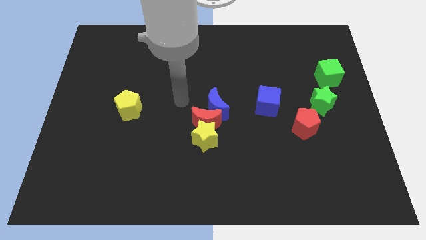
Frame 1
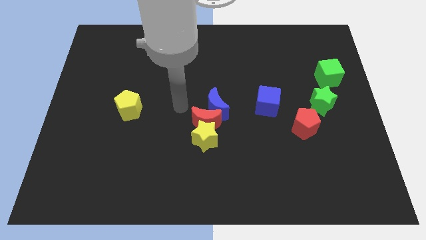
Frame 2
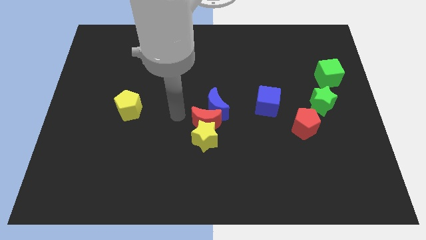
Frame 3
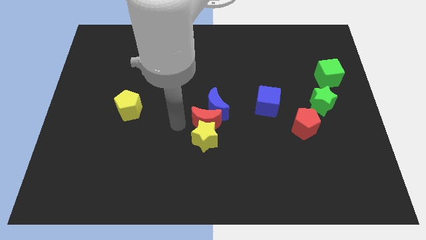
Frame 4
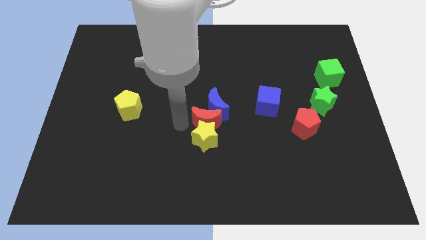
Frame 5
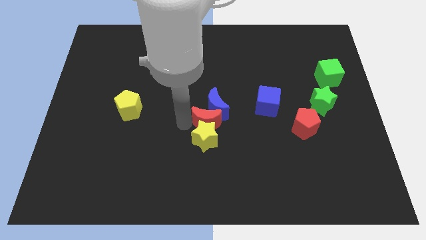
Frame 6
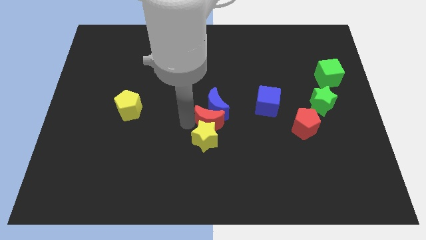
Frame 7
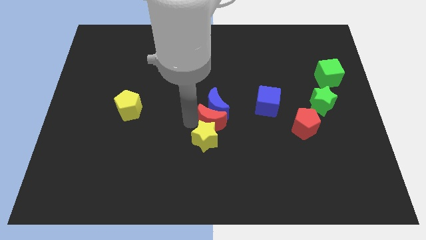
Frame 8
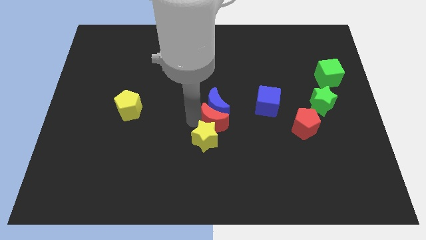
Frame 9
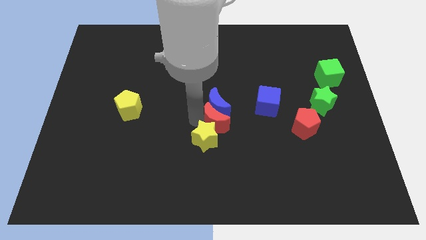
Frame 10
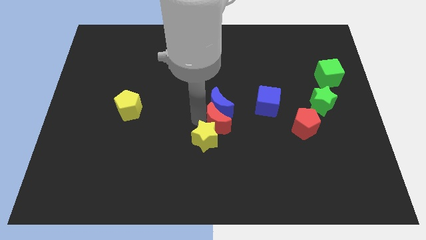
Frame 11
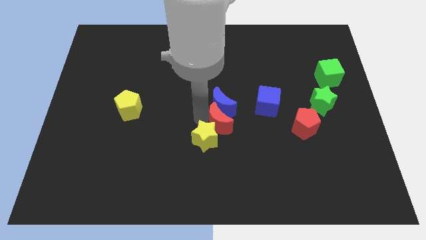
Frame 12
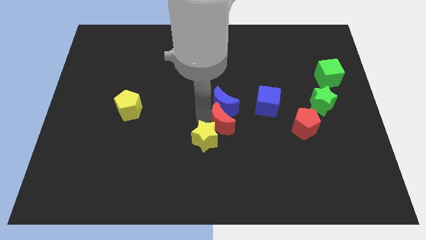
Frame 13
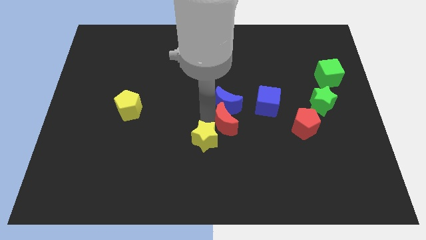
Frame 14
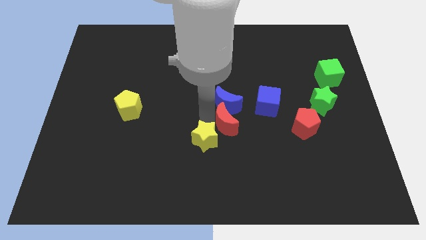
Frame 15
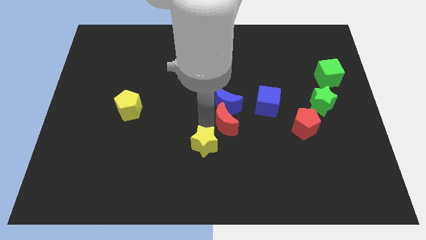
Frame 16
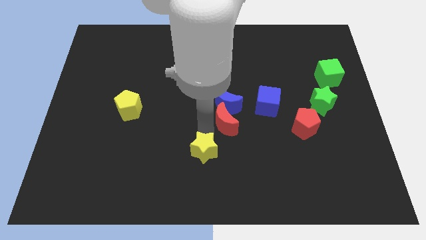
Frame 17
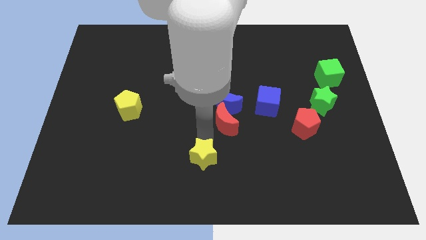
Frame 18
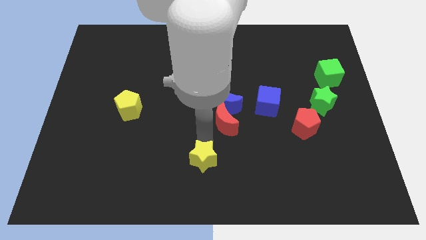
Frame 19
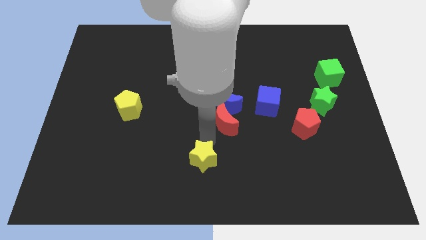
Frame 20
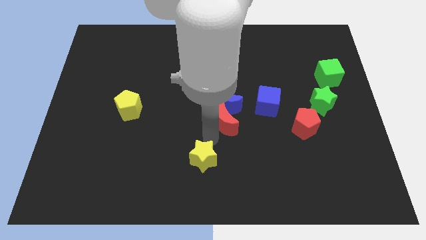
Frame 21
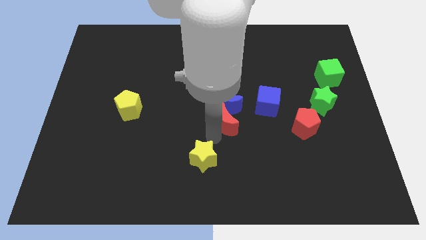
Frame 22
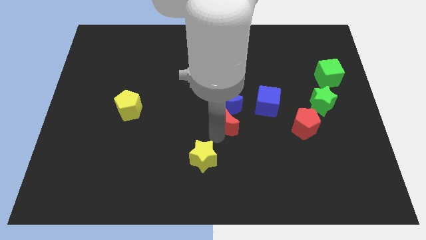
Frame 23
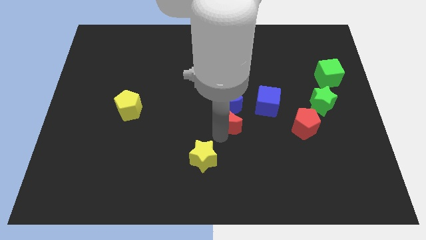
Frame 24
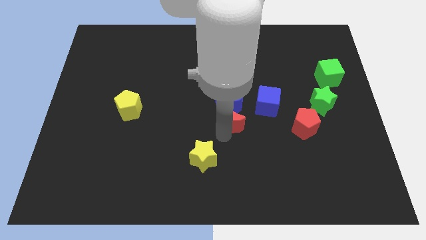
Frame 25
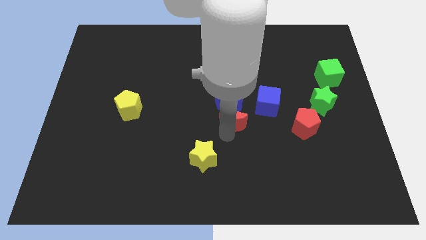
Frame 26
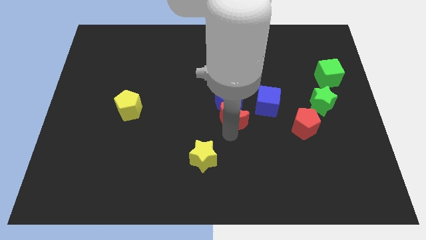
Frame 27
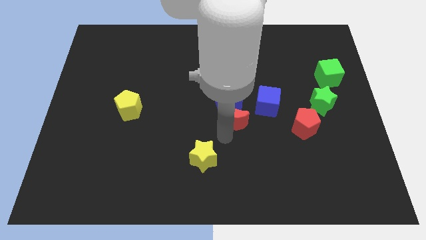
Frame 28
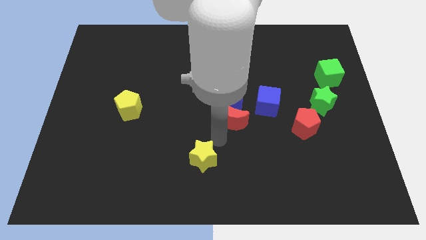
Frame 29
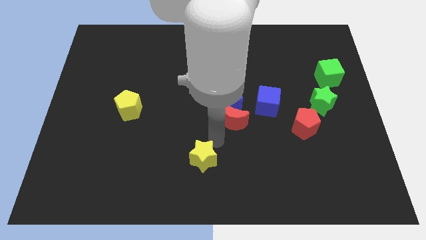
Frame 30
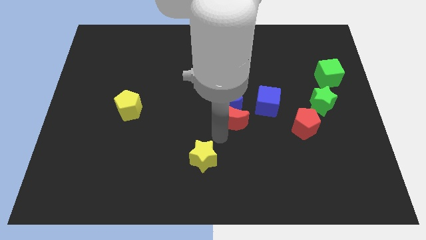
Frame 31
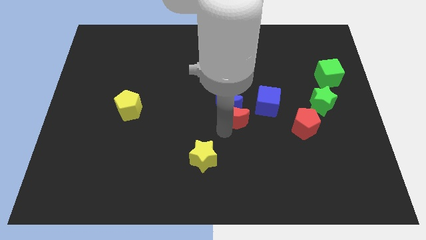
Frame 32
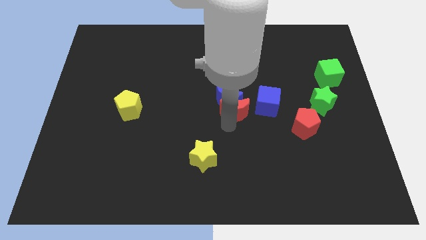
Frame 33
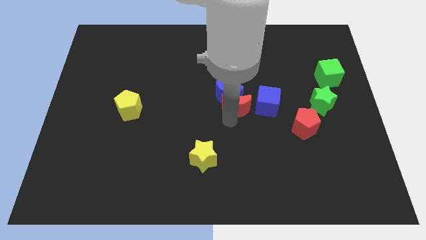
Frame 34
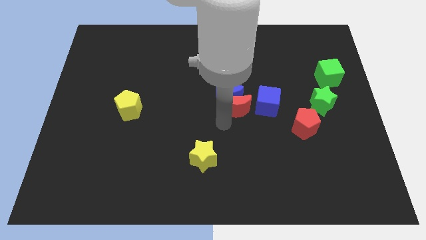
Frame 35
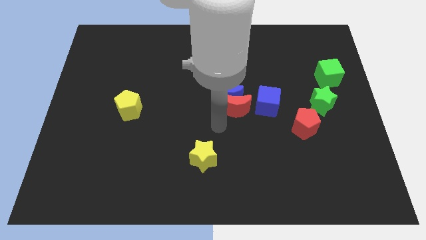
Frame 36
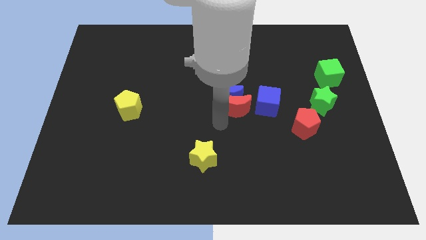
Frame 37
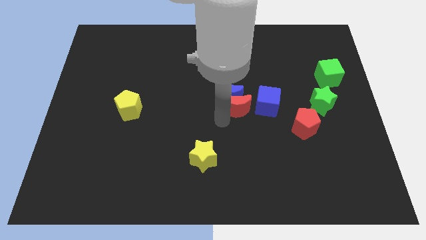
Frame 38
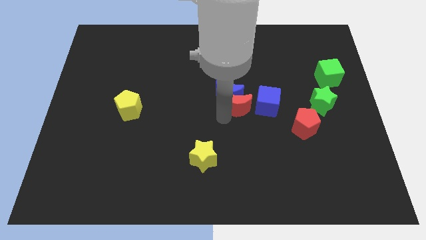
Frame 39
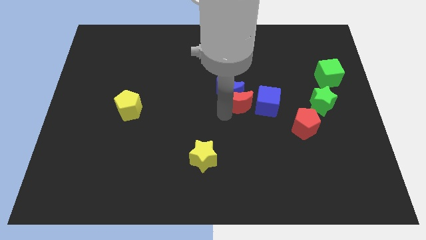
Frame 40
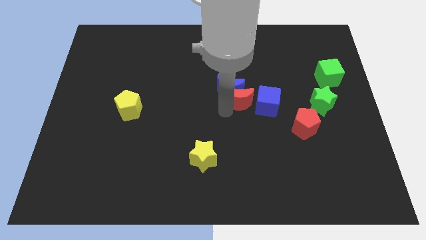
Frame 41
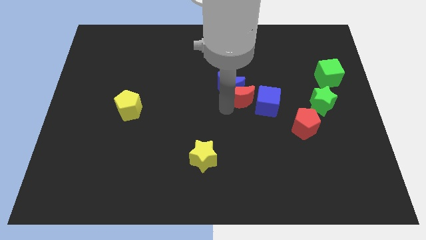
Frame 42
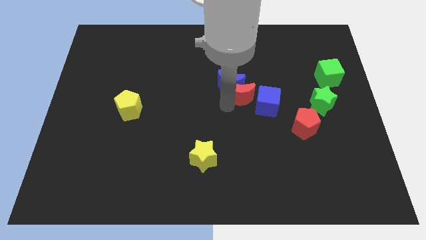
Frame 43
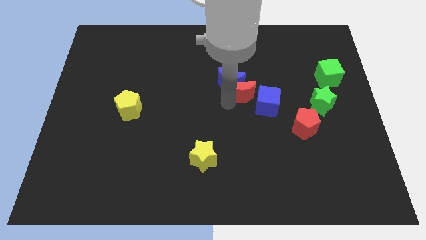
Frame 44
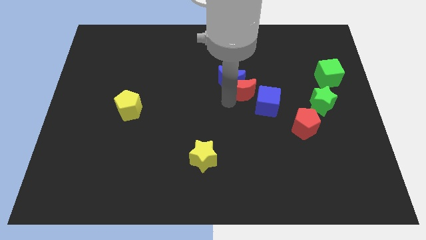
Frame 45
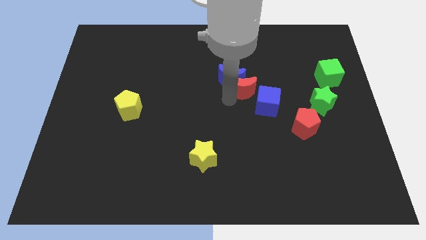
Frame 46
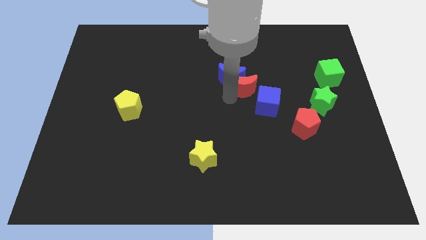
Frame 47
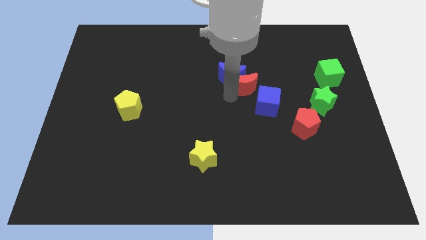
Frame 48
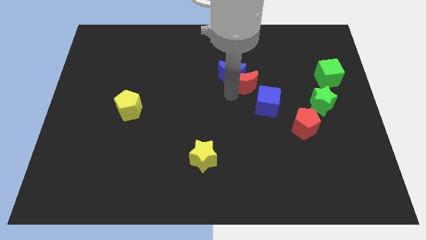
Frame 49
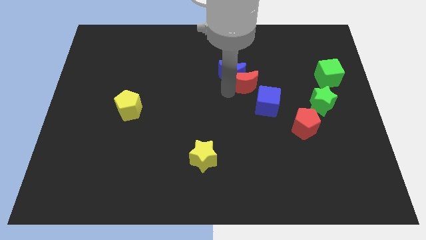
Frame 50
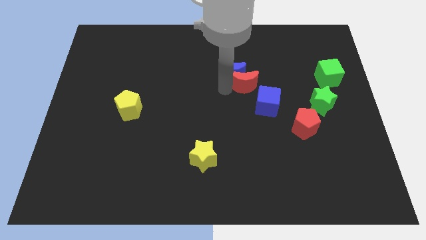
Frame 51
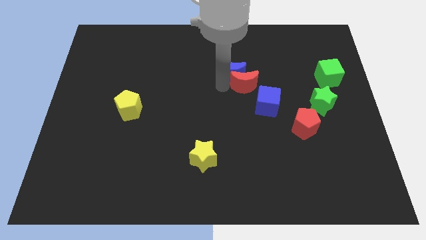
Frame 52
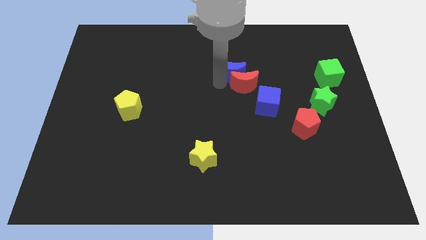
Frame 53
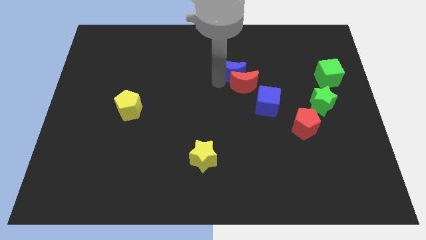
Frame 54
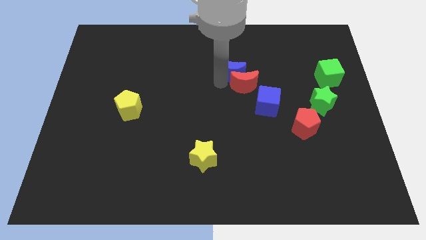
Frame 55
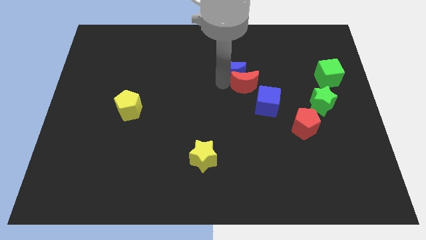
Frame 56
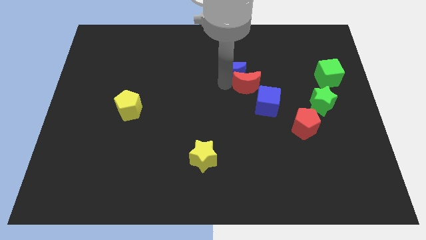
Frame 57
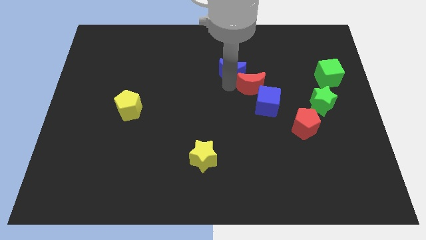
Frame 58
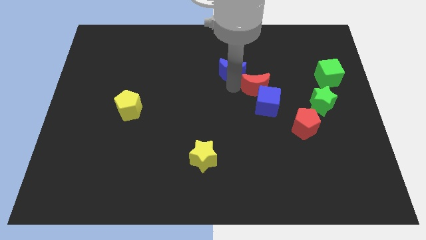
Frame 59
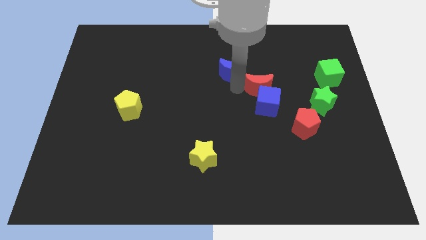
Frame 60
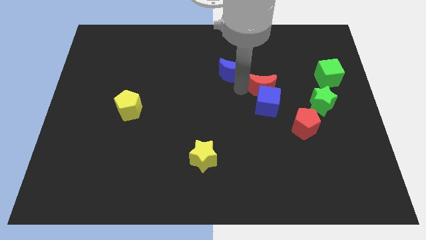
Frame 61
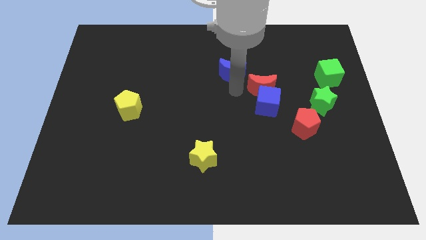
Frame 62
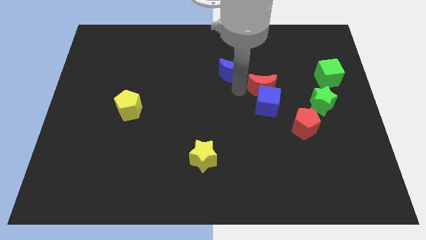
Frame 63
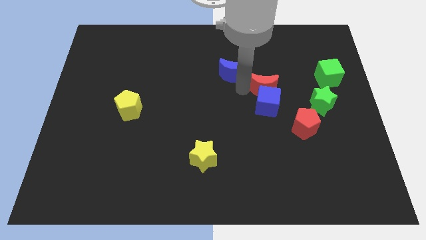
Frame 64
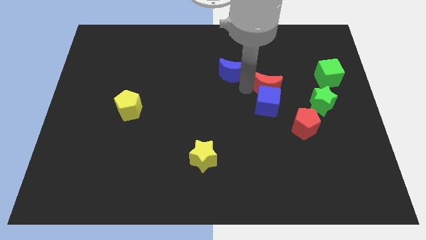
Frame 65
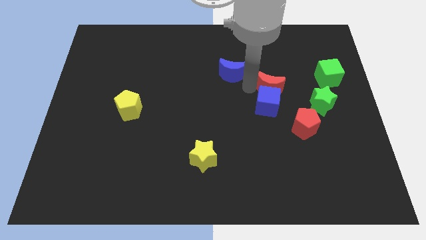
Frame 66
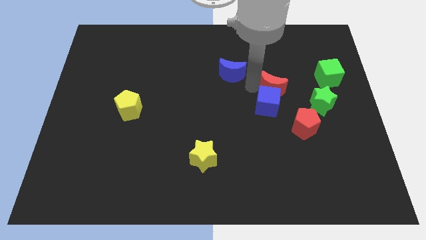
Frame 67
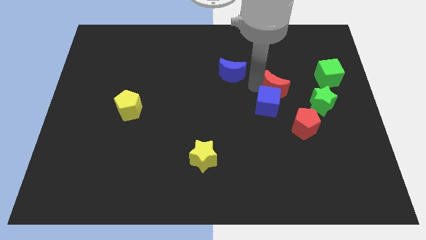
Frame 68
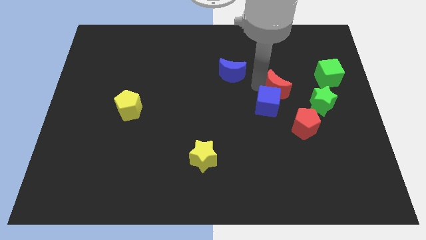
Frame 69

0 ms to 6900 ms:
slide the red moon to the top left side of the green star
